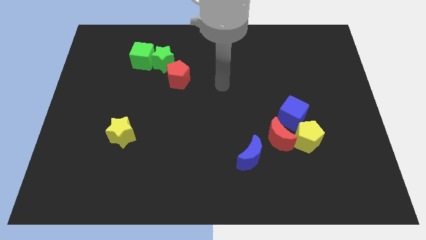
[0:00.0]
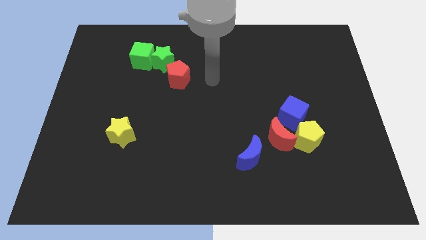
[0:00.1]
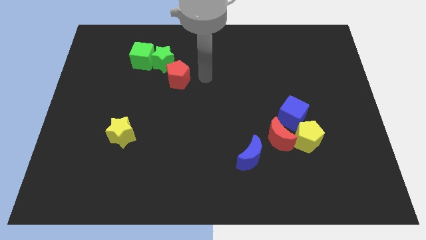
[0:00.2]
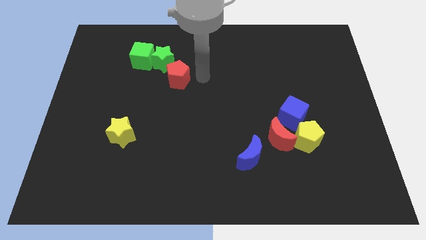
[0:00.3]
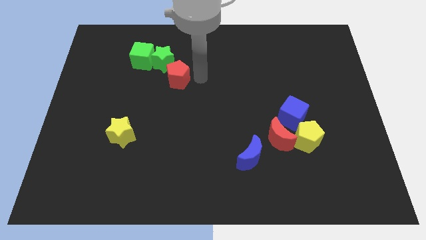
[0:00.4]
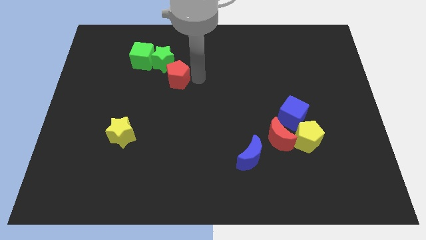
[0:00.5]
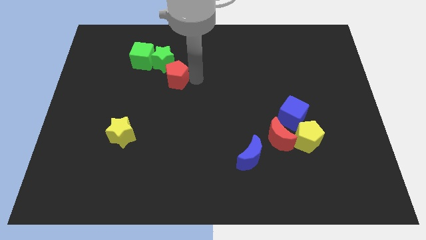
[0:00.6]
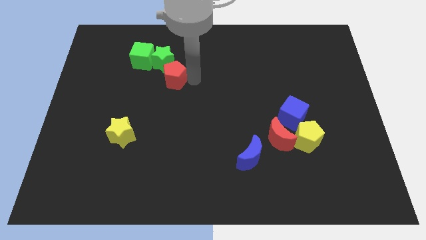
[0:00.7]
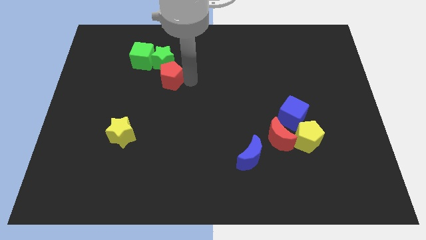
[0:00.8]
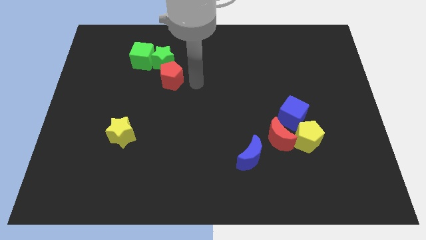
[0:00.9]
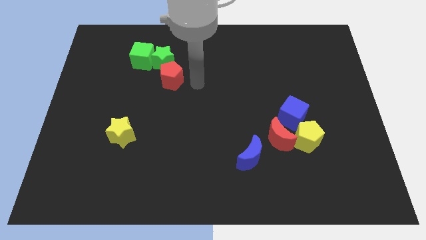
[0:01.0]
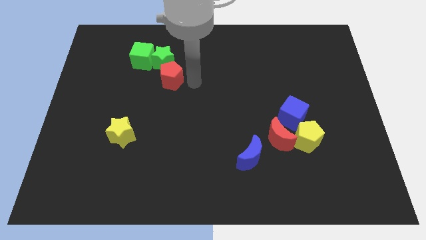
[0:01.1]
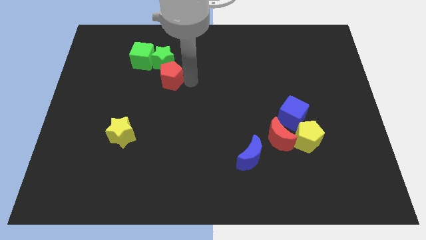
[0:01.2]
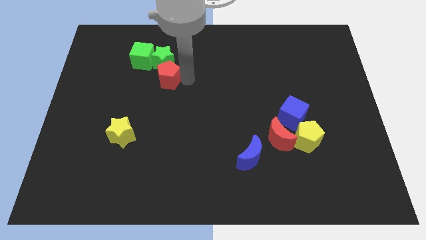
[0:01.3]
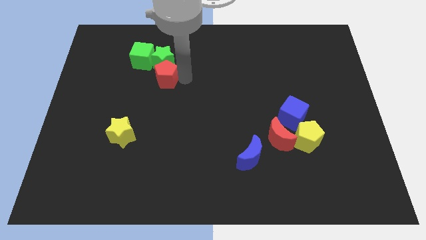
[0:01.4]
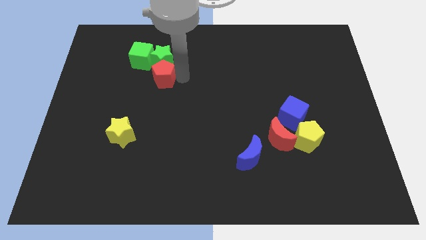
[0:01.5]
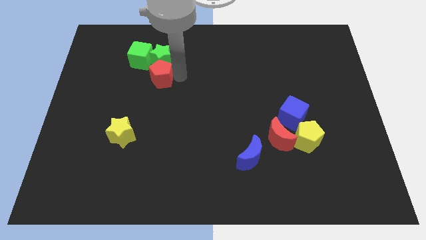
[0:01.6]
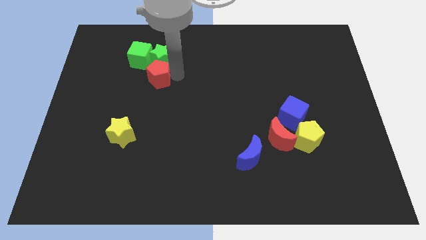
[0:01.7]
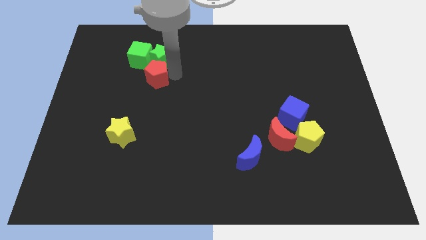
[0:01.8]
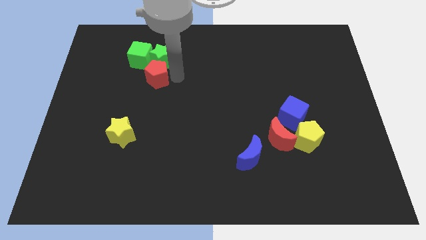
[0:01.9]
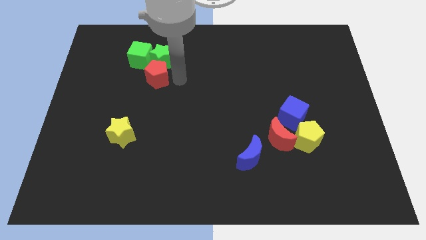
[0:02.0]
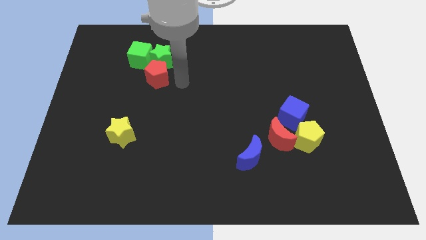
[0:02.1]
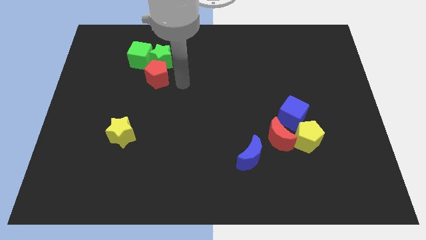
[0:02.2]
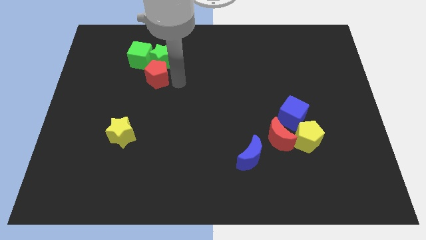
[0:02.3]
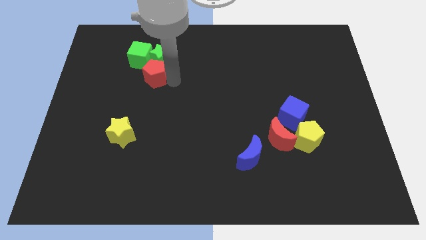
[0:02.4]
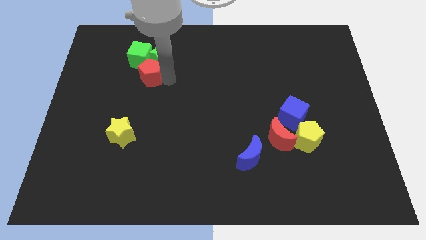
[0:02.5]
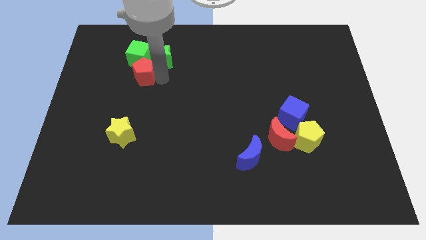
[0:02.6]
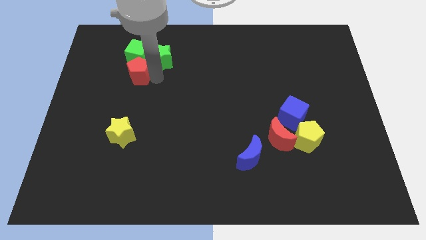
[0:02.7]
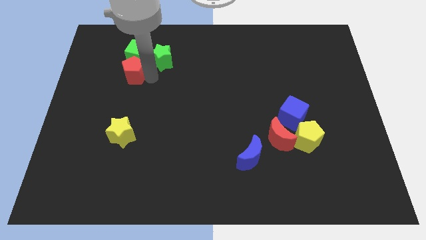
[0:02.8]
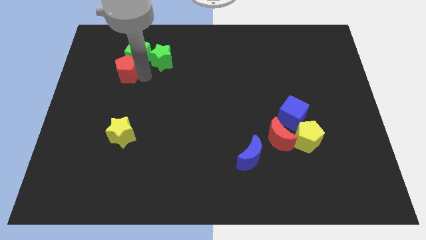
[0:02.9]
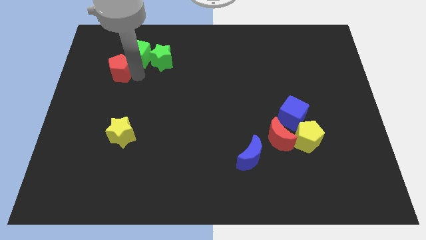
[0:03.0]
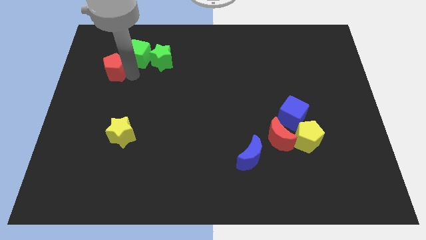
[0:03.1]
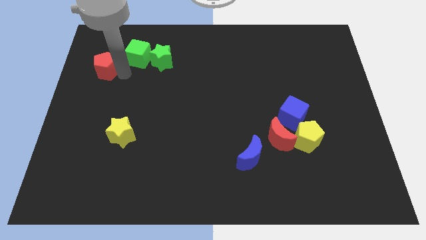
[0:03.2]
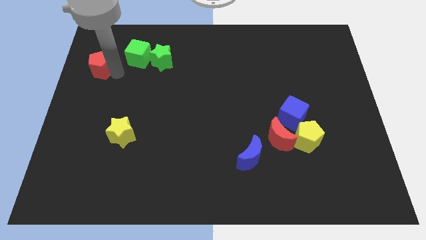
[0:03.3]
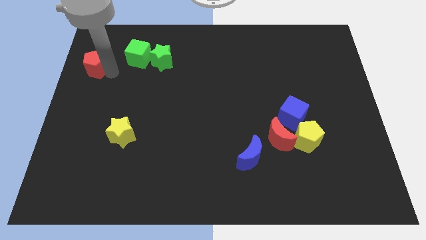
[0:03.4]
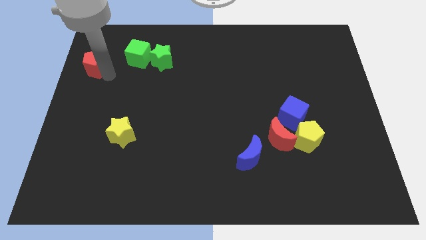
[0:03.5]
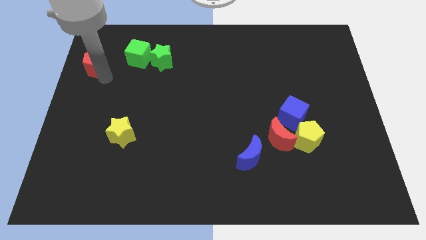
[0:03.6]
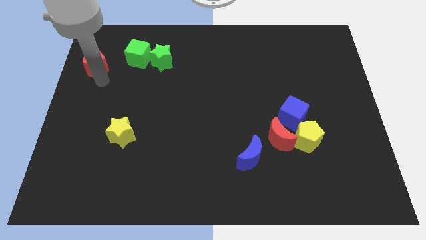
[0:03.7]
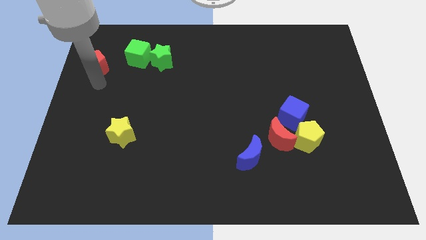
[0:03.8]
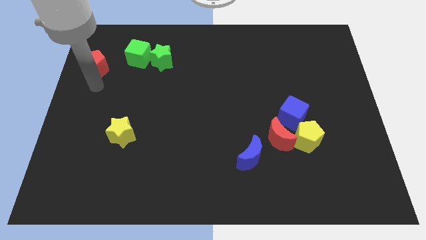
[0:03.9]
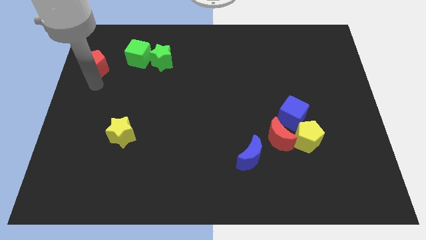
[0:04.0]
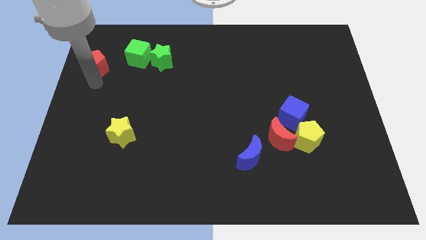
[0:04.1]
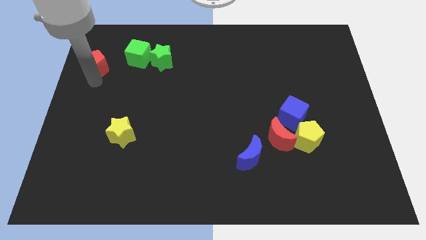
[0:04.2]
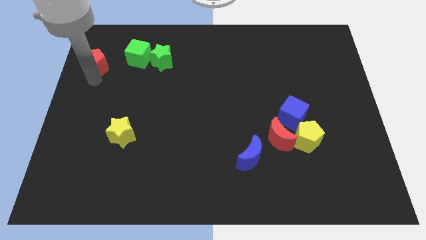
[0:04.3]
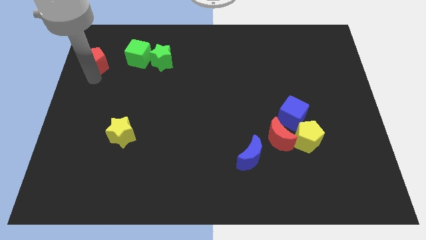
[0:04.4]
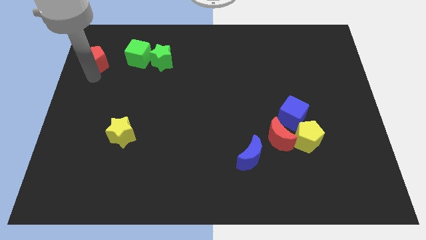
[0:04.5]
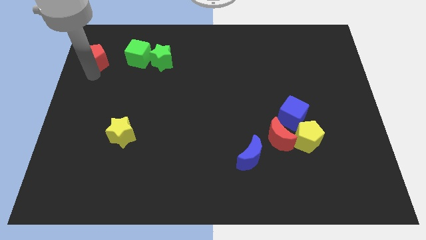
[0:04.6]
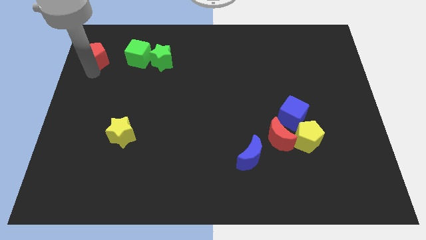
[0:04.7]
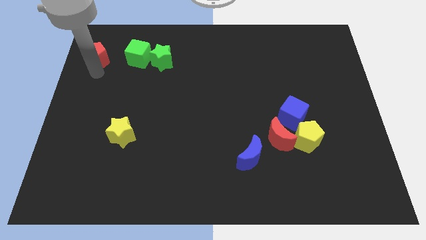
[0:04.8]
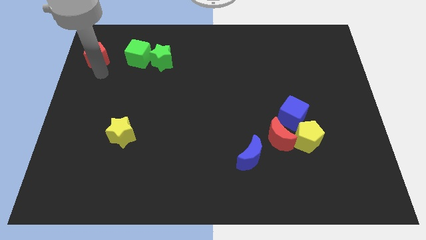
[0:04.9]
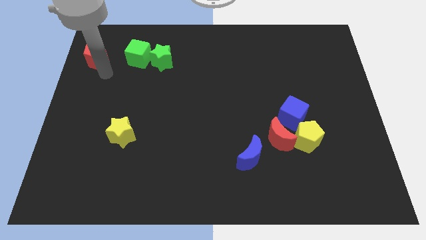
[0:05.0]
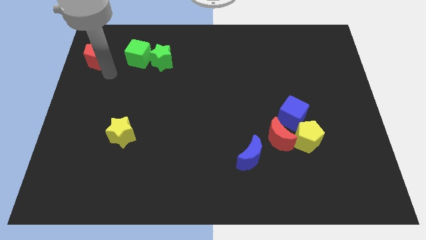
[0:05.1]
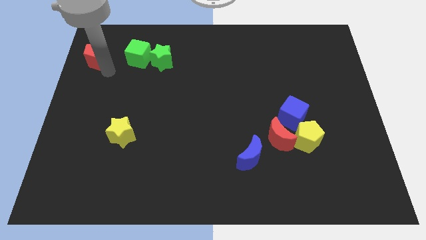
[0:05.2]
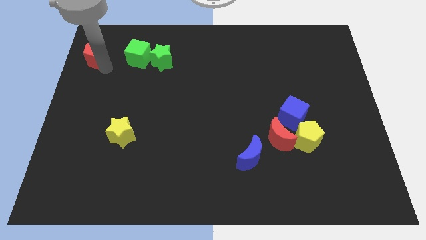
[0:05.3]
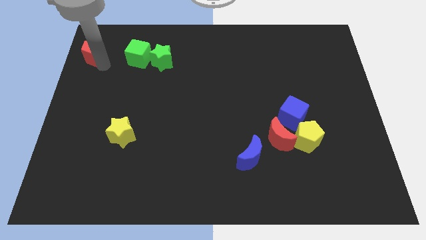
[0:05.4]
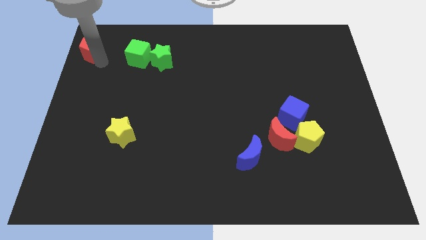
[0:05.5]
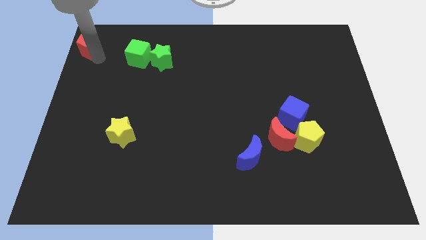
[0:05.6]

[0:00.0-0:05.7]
slide the red pentagon to the top left of the board
